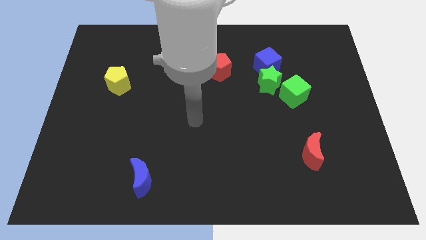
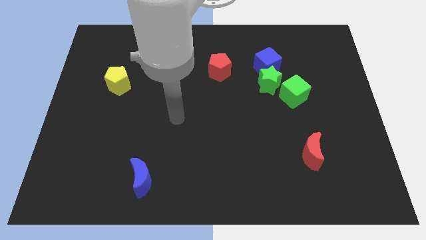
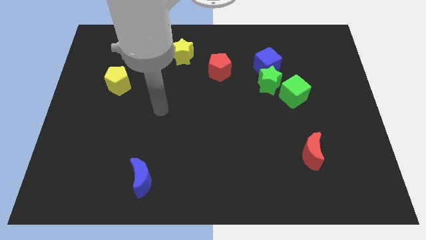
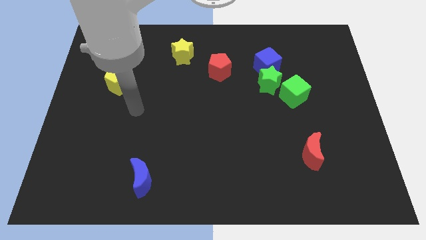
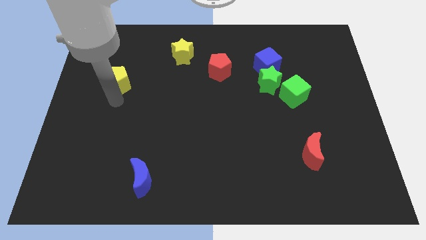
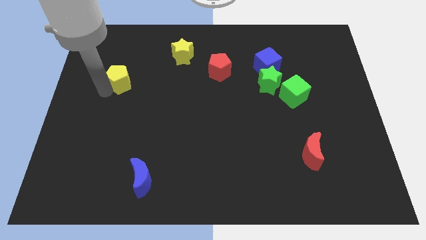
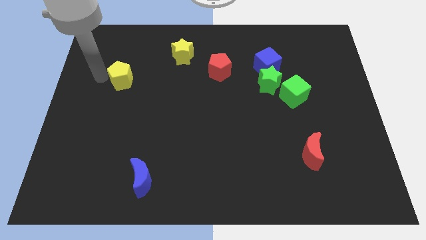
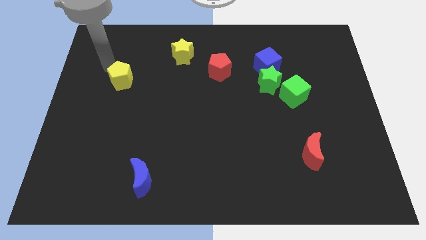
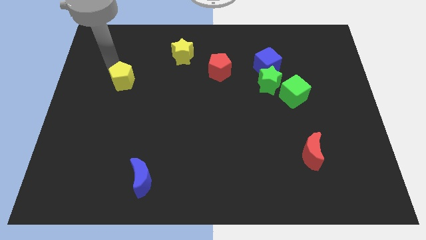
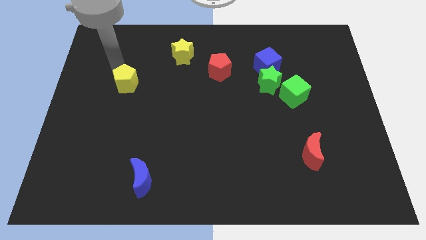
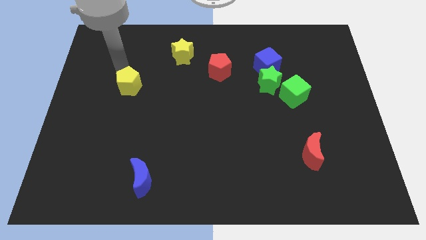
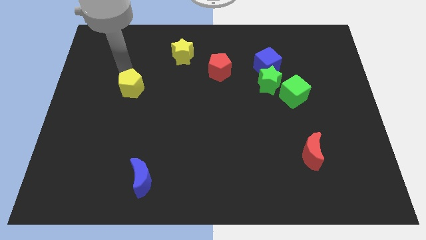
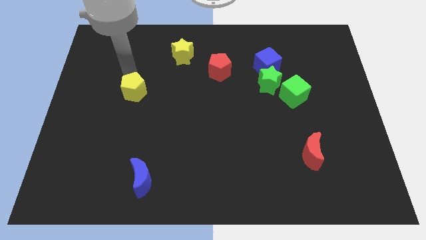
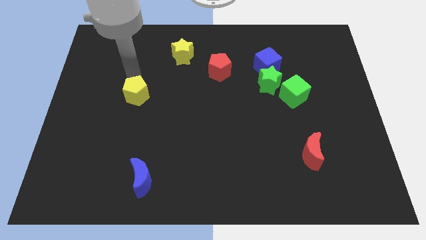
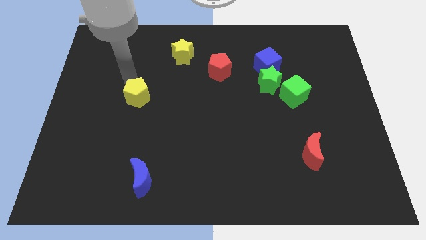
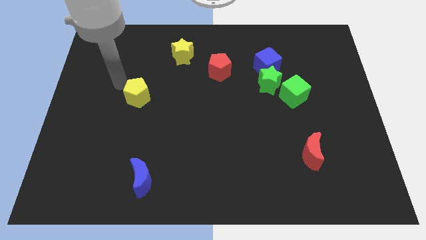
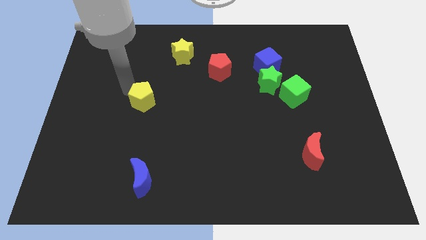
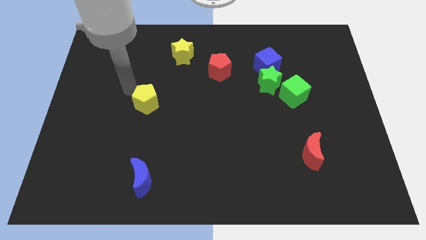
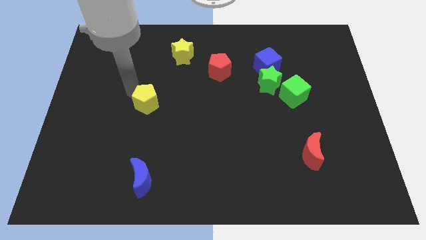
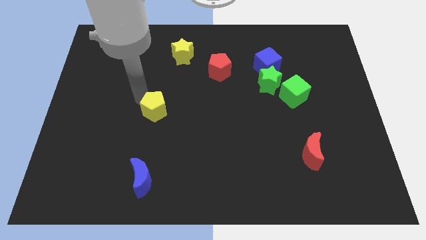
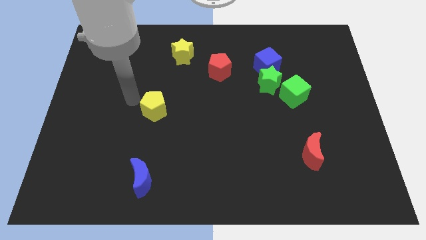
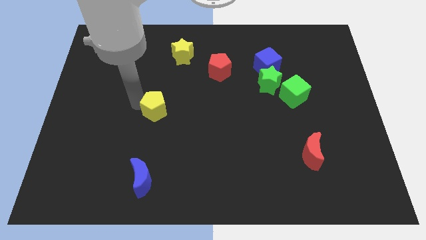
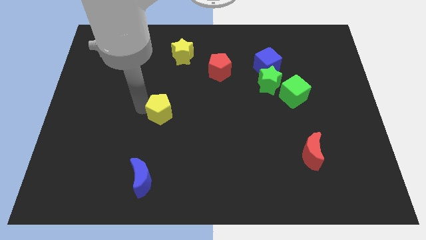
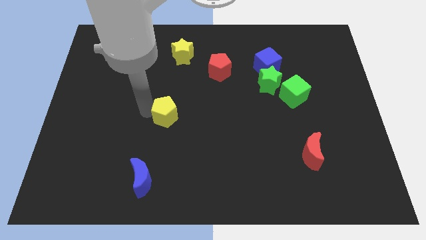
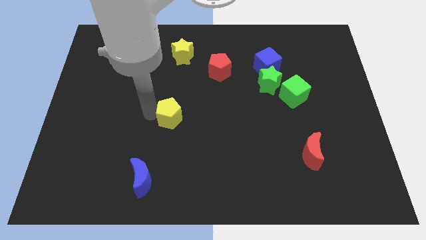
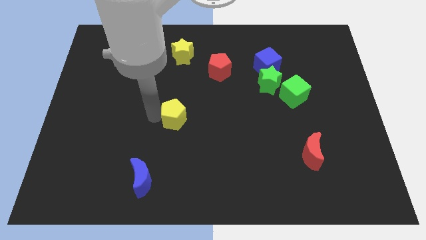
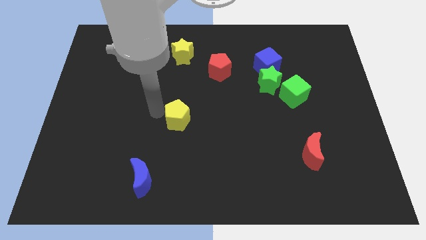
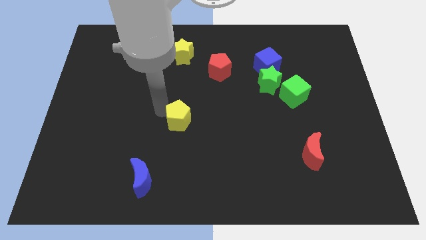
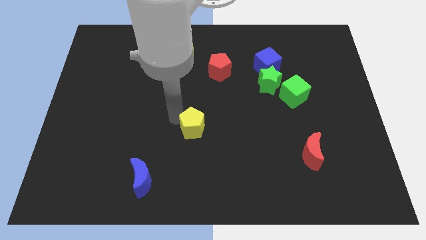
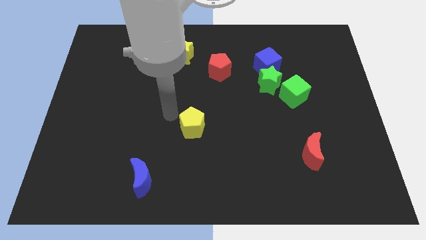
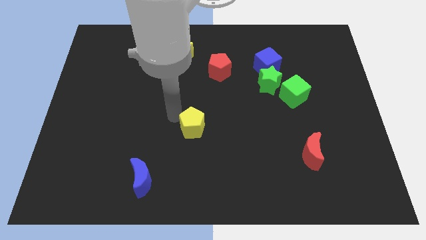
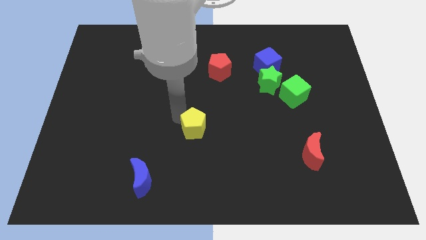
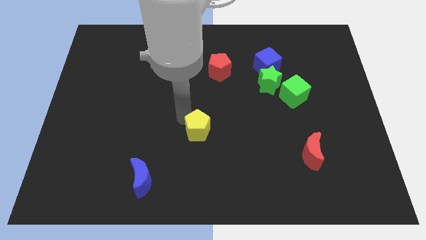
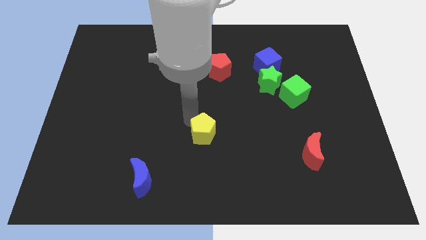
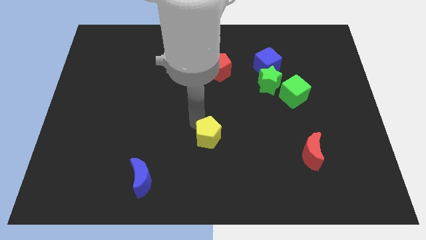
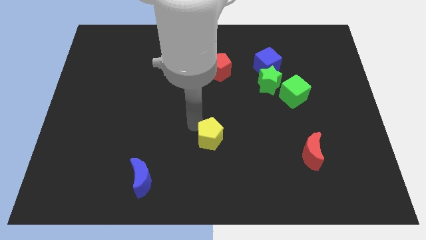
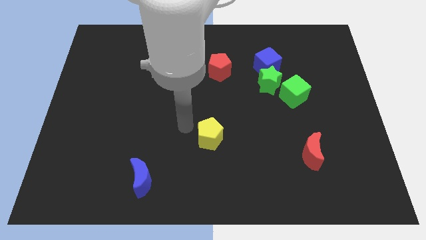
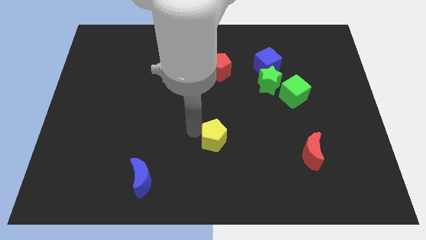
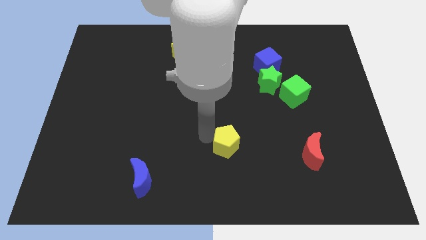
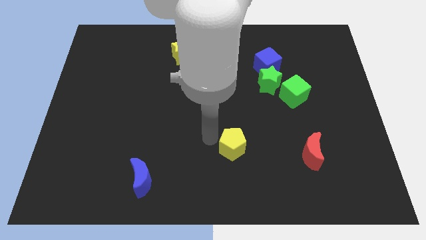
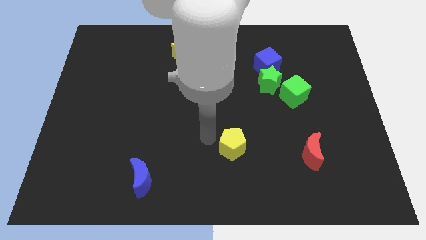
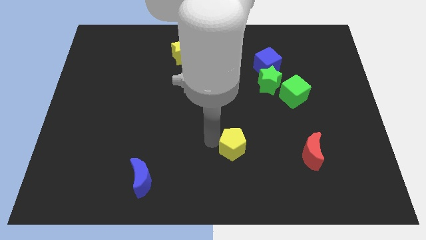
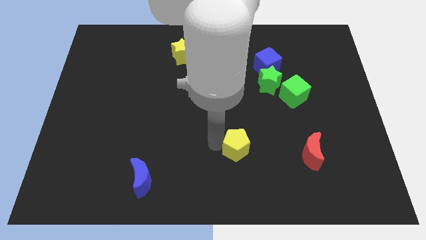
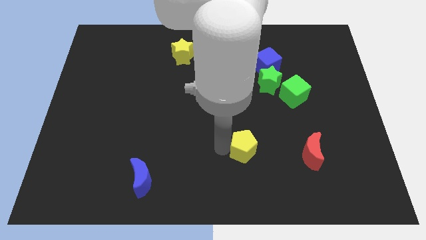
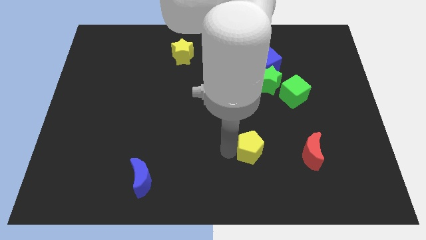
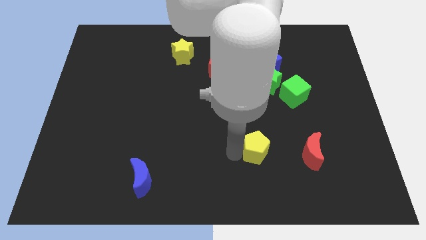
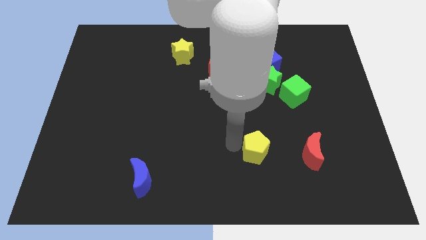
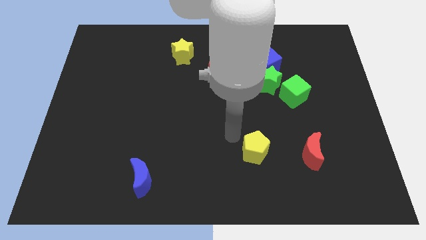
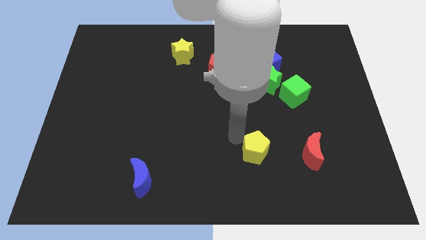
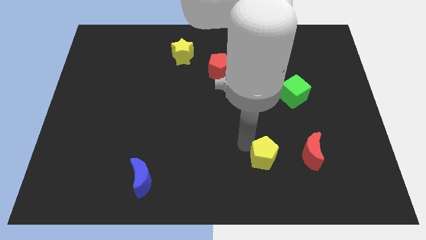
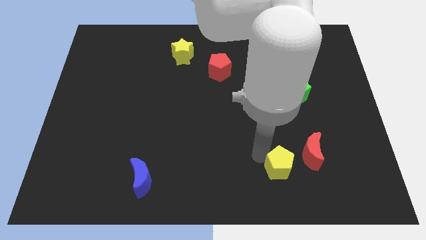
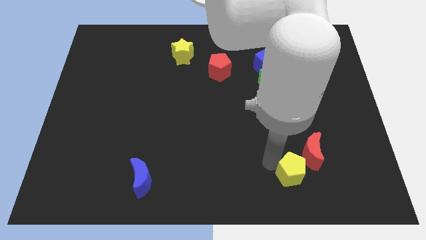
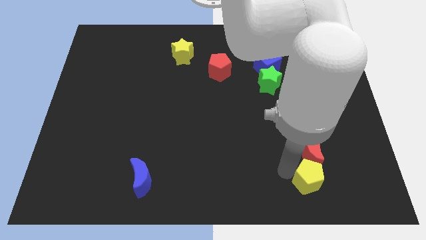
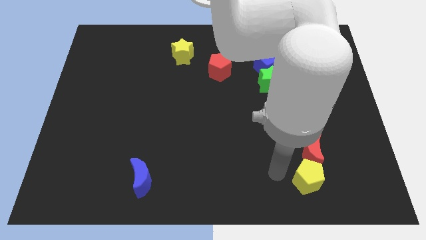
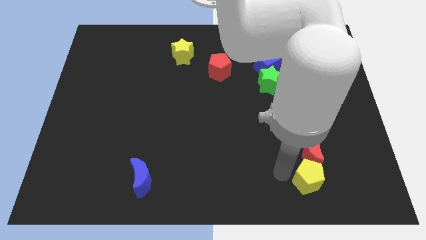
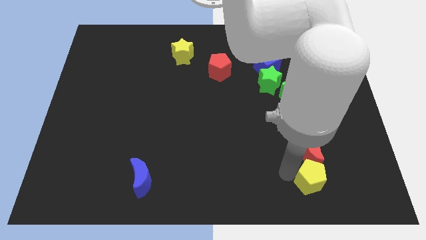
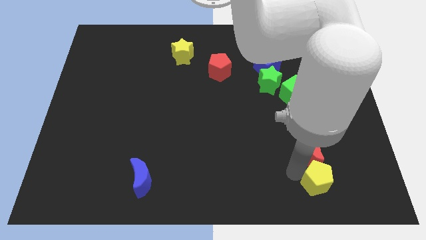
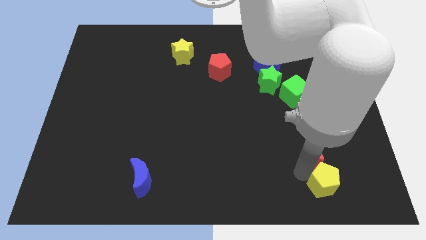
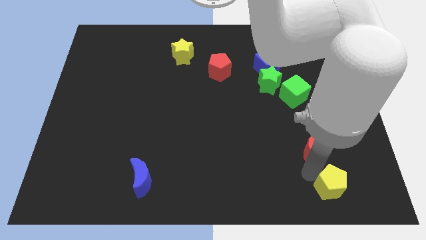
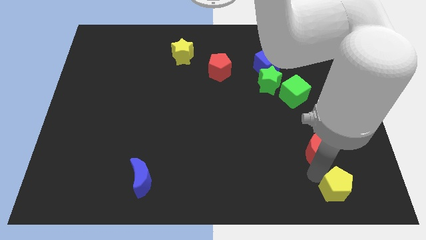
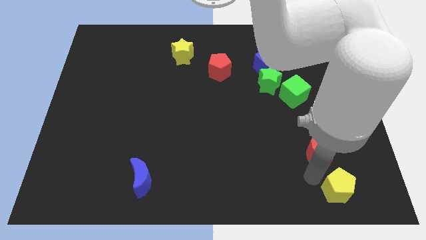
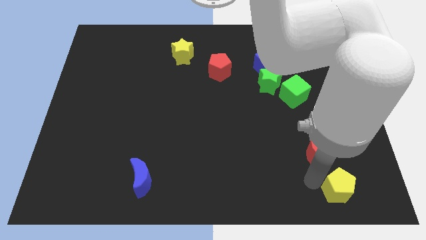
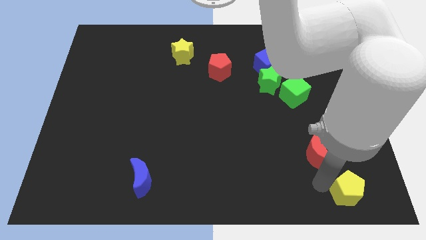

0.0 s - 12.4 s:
slide the yellow pentagon to the bottom right

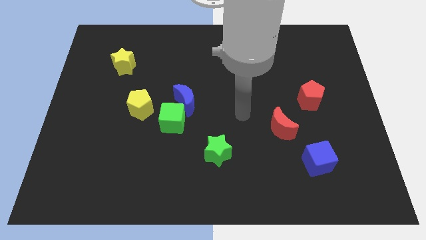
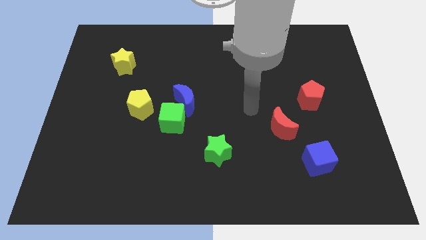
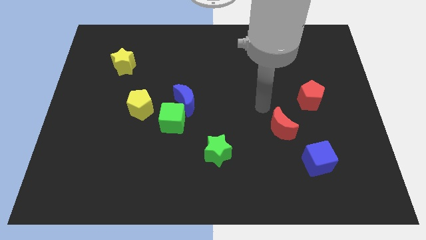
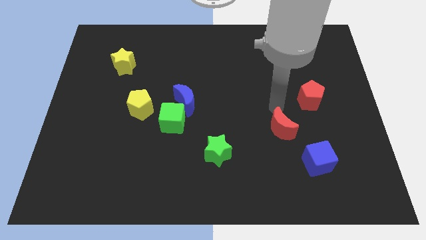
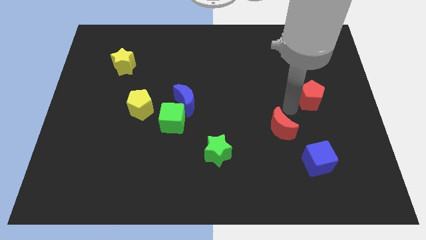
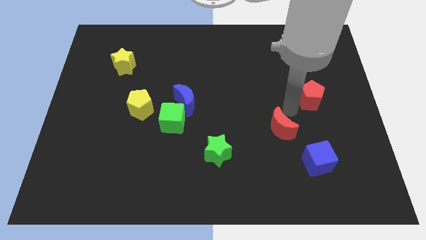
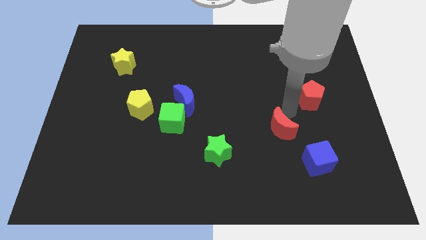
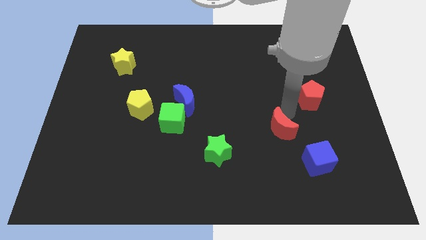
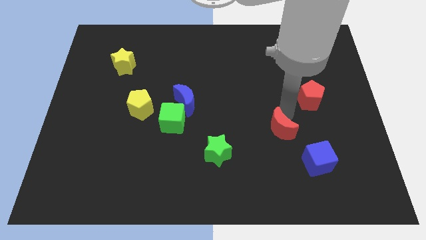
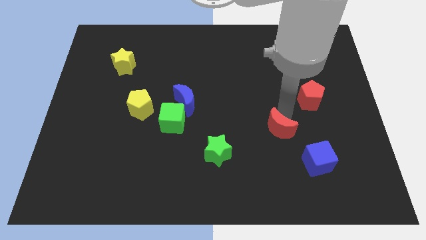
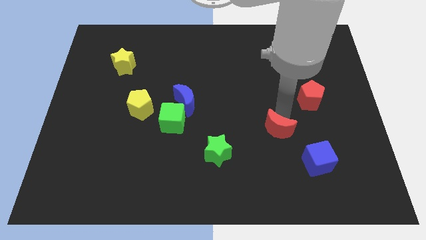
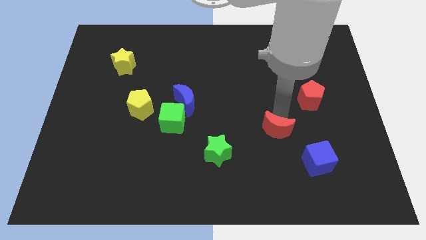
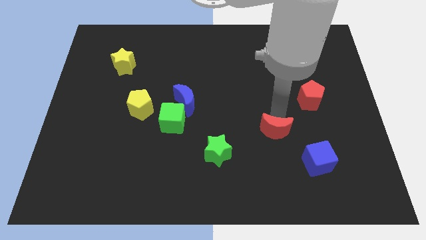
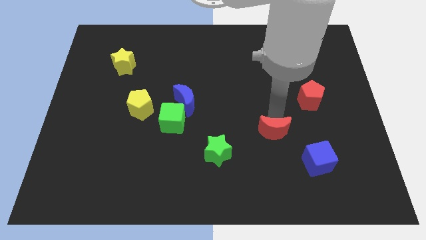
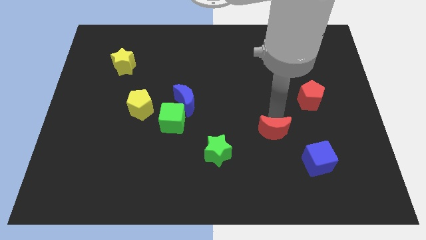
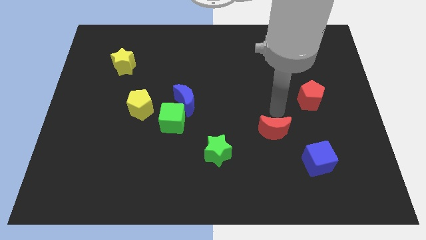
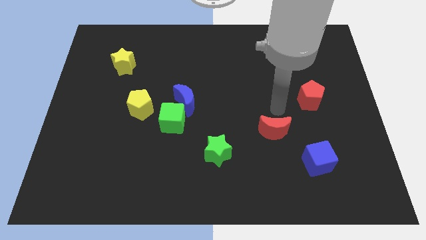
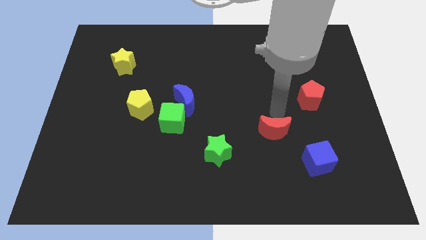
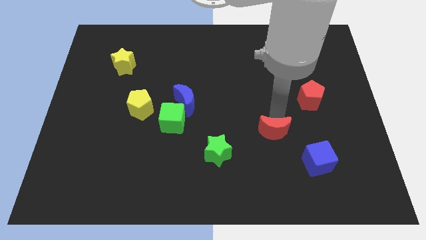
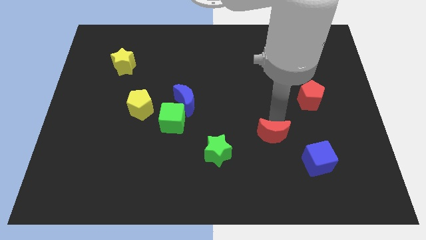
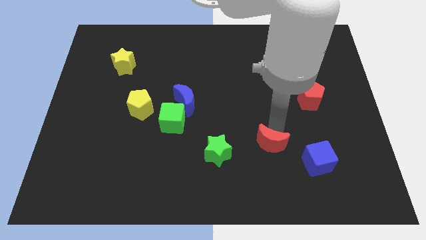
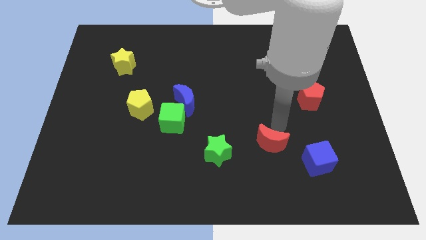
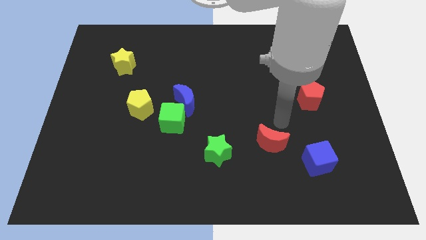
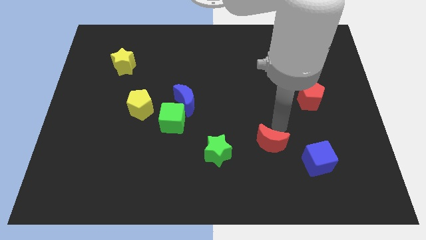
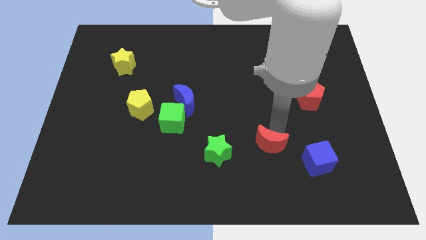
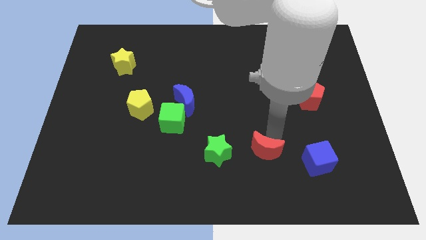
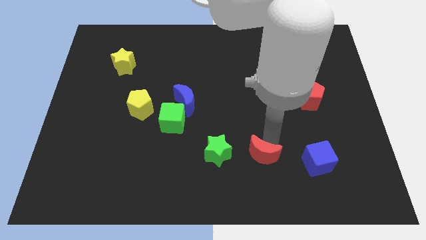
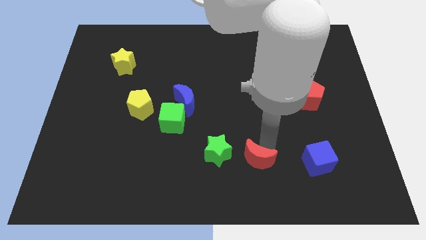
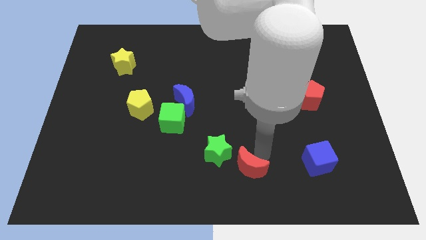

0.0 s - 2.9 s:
slide the red moon to the bottom side
